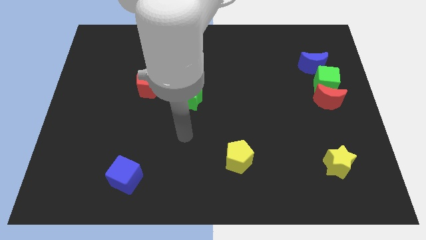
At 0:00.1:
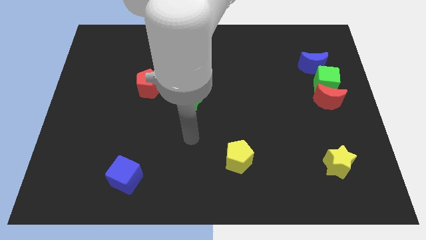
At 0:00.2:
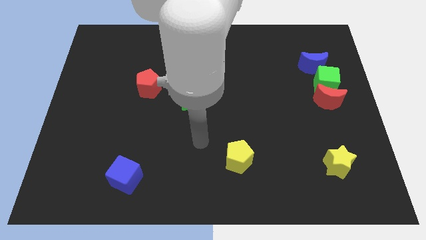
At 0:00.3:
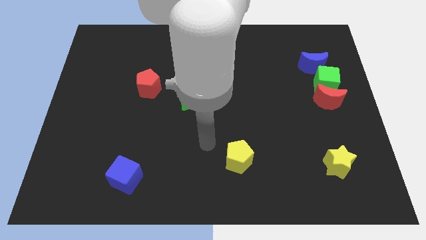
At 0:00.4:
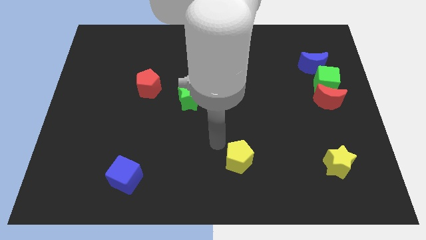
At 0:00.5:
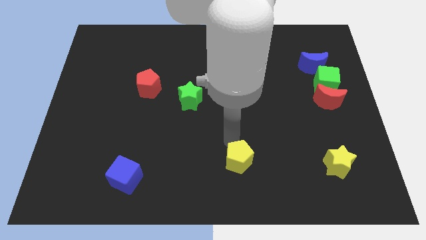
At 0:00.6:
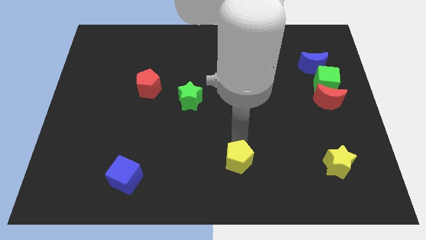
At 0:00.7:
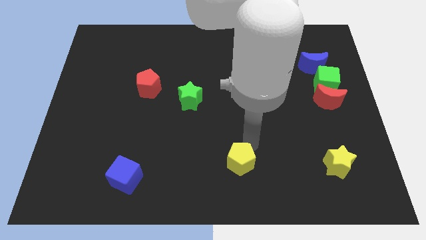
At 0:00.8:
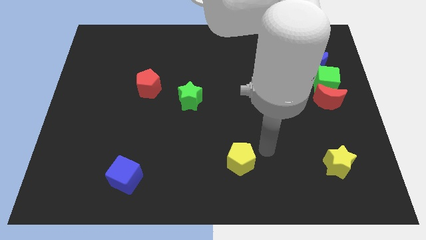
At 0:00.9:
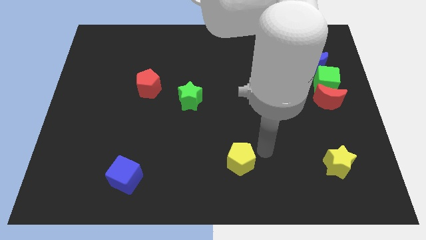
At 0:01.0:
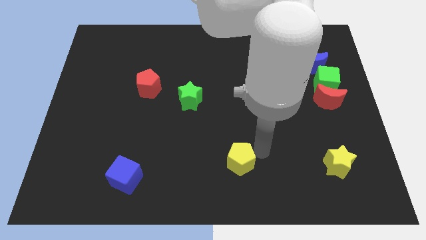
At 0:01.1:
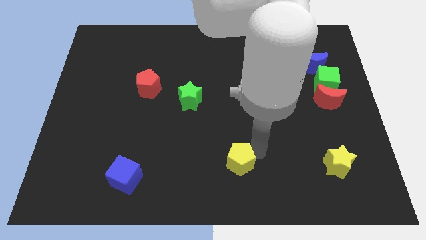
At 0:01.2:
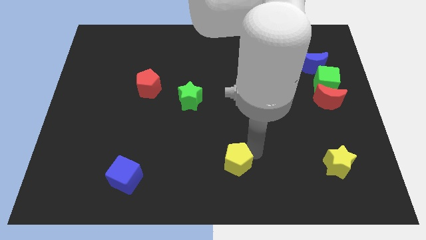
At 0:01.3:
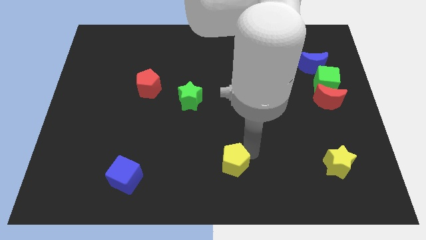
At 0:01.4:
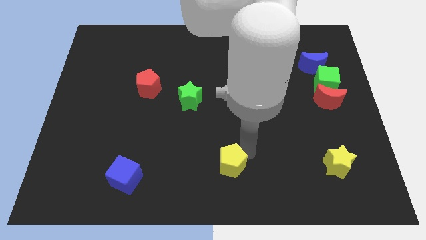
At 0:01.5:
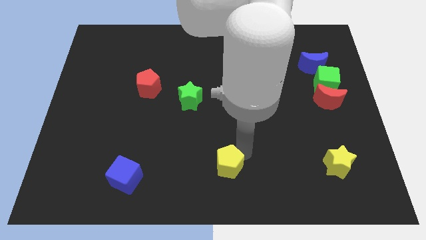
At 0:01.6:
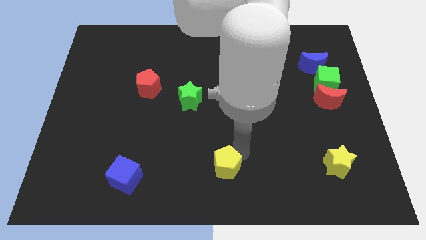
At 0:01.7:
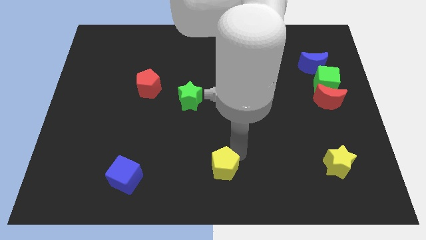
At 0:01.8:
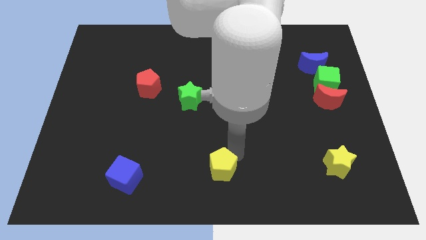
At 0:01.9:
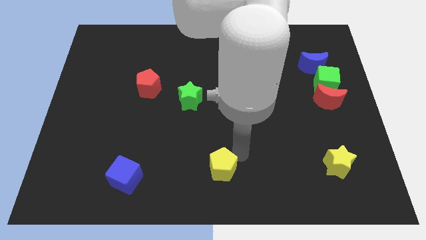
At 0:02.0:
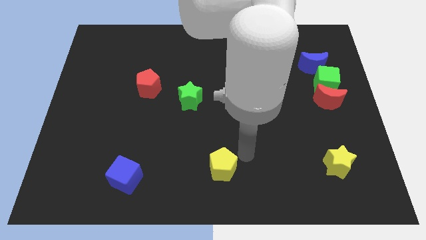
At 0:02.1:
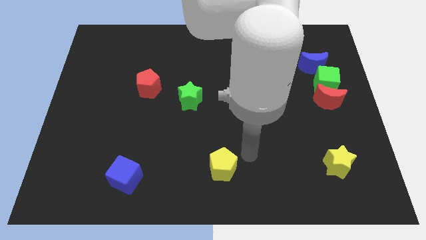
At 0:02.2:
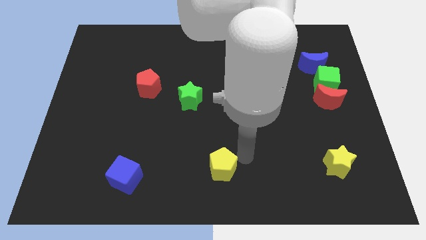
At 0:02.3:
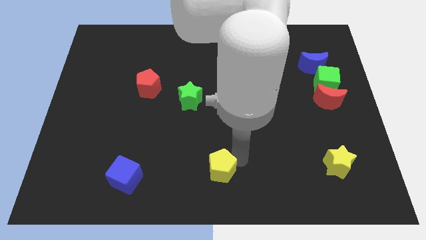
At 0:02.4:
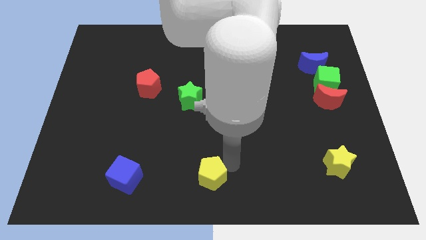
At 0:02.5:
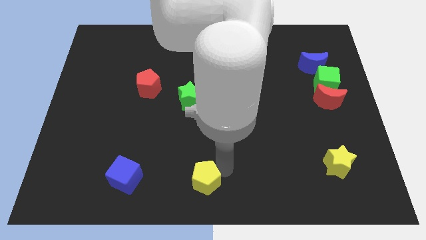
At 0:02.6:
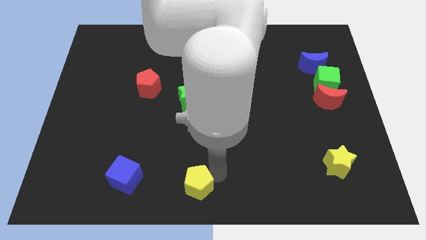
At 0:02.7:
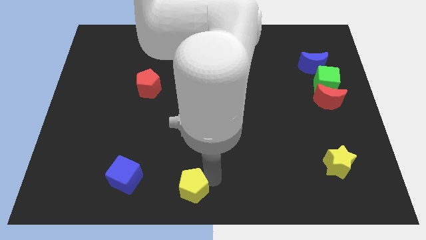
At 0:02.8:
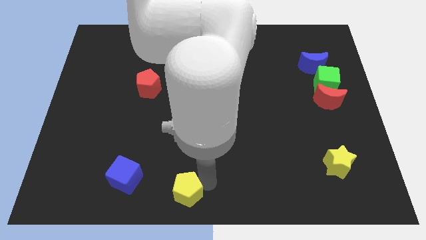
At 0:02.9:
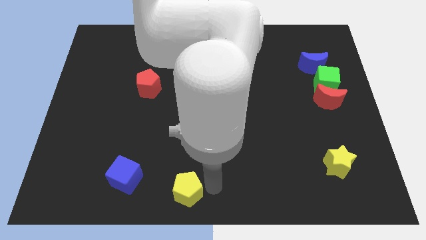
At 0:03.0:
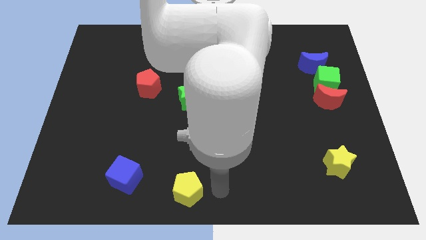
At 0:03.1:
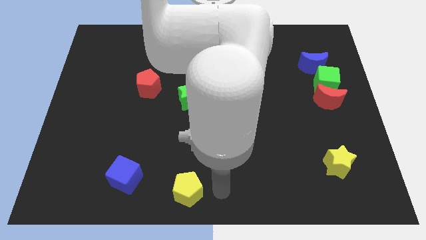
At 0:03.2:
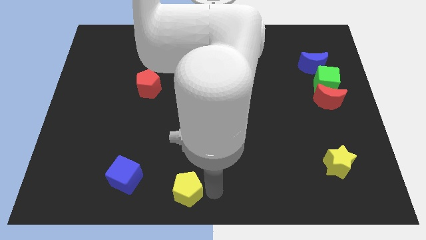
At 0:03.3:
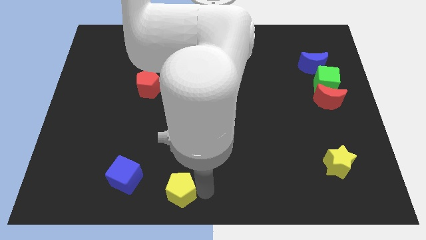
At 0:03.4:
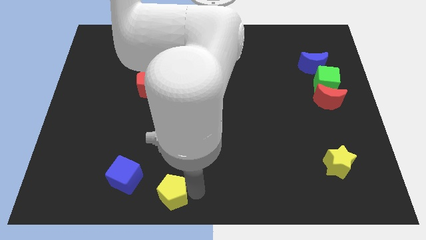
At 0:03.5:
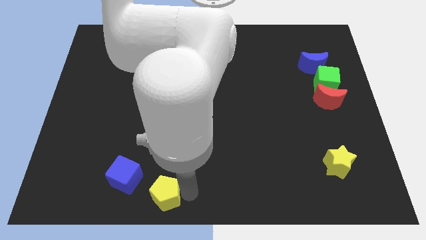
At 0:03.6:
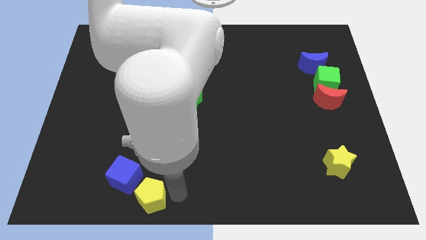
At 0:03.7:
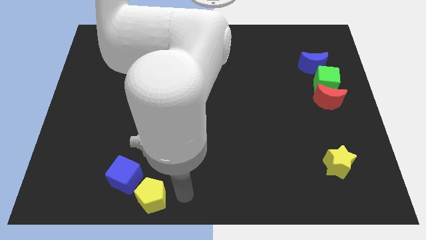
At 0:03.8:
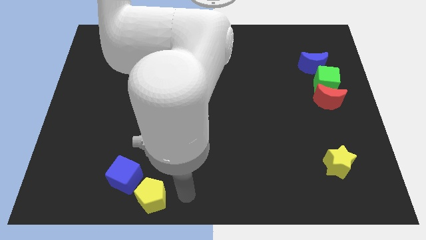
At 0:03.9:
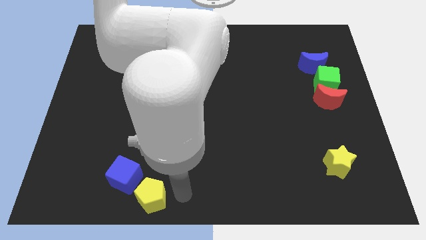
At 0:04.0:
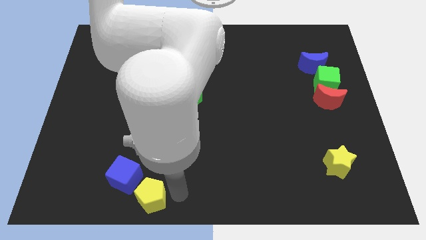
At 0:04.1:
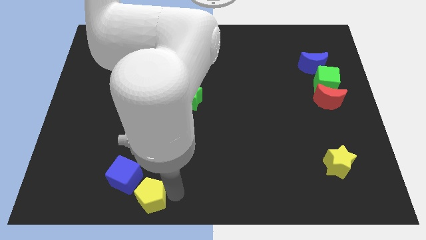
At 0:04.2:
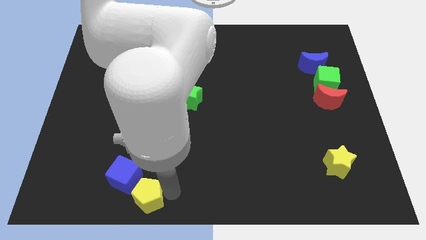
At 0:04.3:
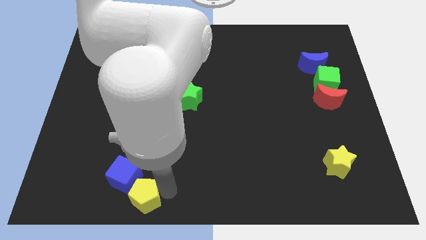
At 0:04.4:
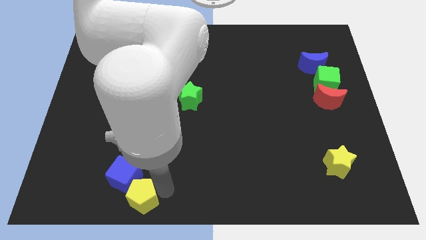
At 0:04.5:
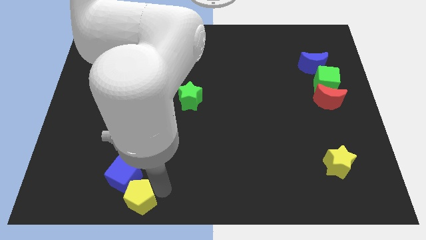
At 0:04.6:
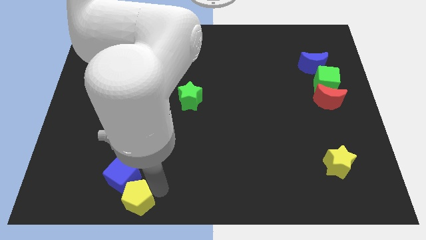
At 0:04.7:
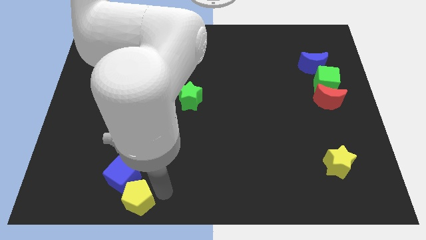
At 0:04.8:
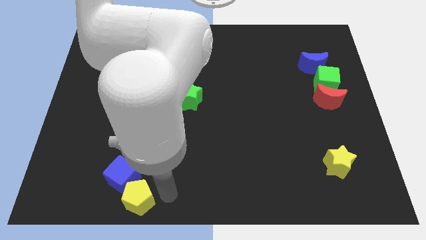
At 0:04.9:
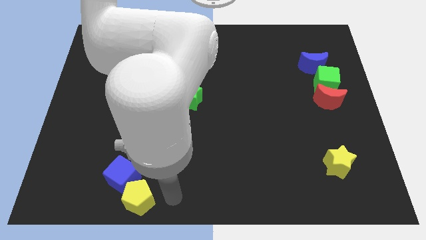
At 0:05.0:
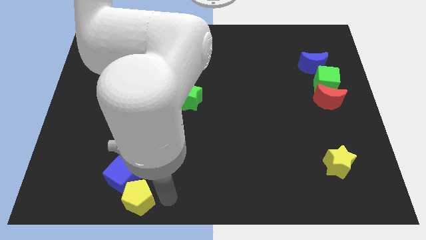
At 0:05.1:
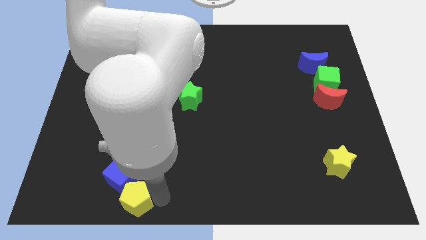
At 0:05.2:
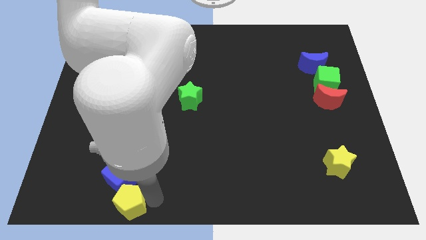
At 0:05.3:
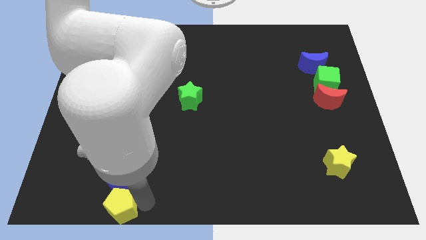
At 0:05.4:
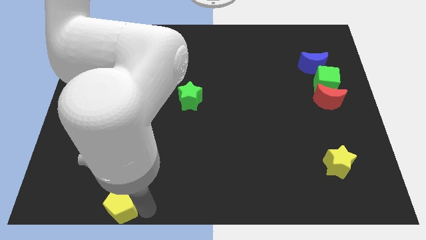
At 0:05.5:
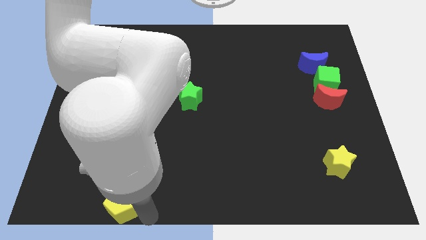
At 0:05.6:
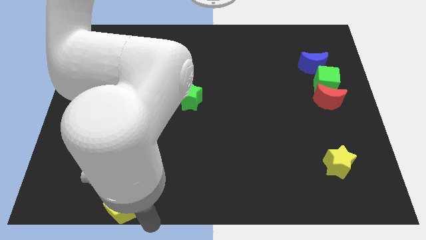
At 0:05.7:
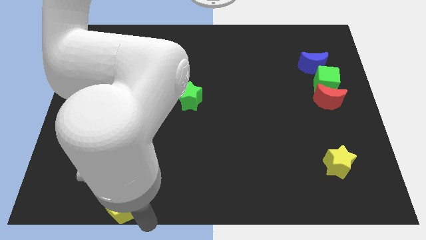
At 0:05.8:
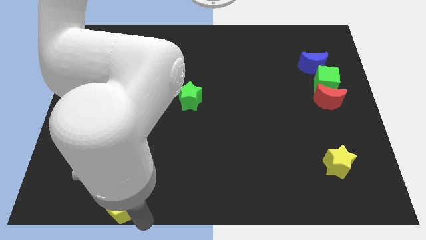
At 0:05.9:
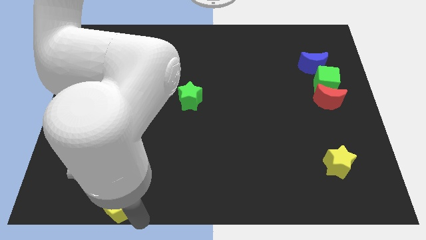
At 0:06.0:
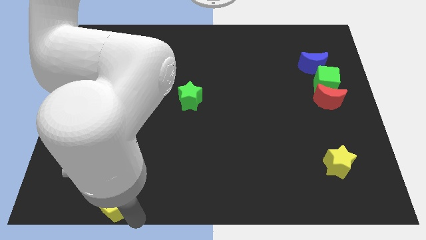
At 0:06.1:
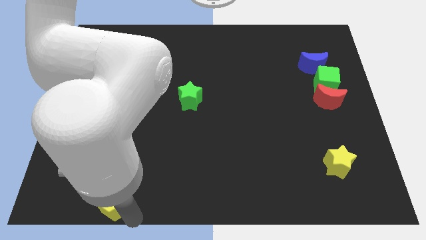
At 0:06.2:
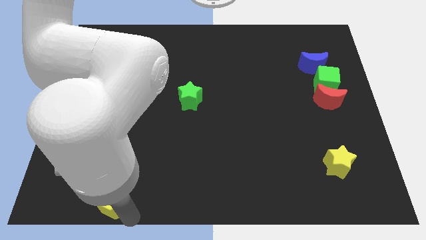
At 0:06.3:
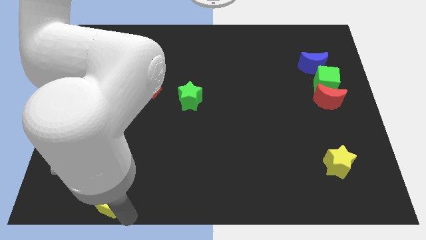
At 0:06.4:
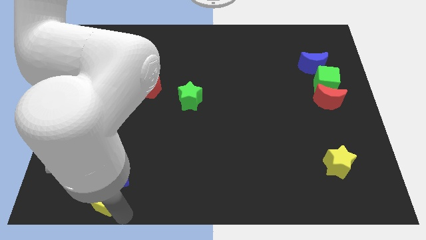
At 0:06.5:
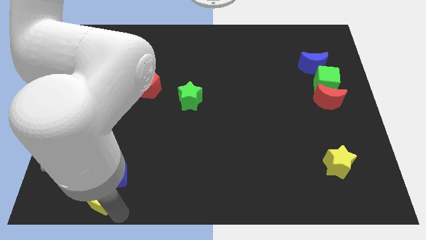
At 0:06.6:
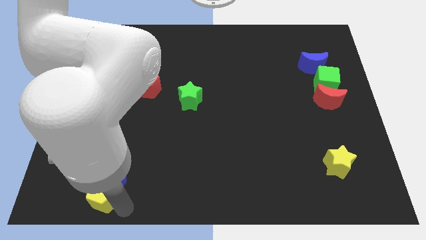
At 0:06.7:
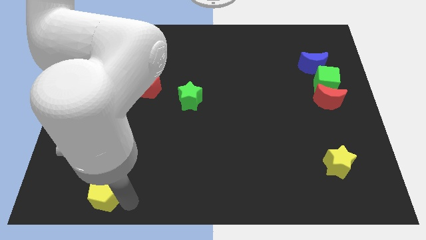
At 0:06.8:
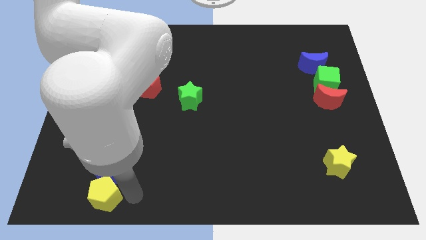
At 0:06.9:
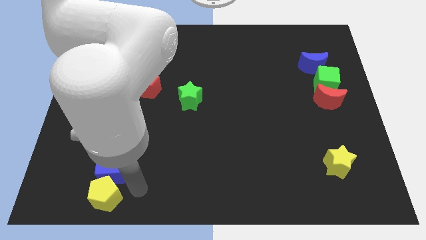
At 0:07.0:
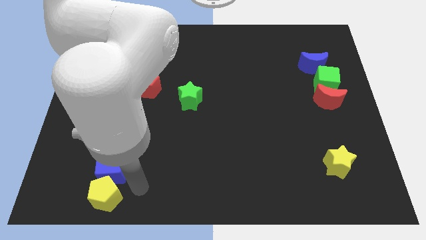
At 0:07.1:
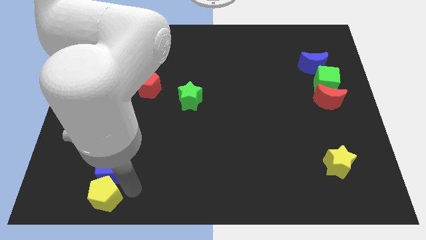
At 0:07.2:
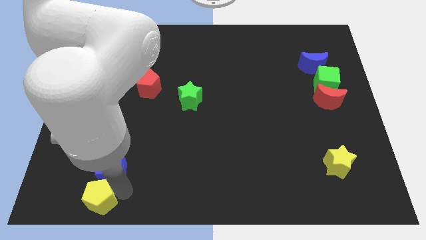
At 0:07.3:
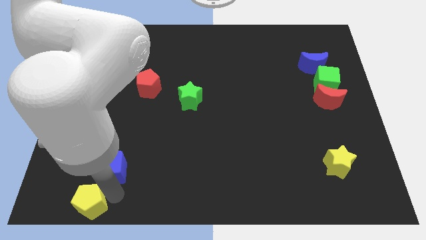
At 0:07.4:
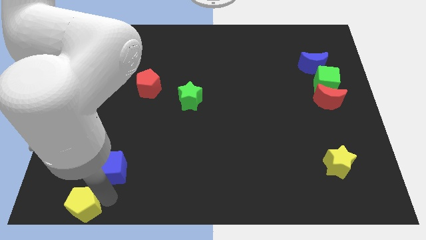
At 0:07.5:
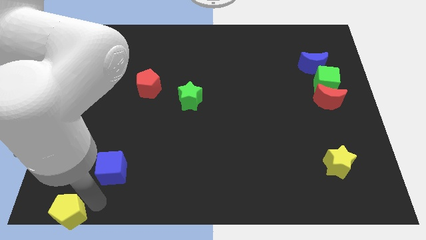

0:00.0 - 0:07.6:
push the yellow pentagon to the bottom left corner
